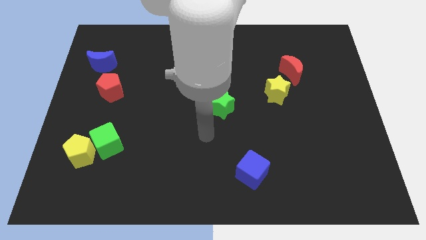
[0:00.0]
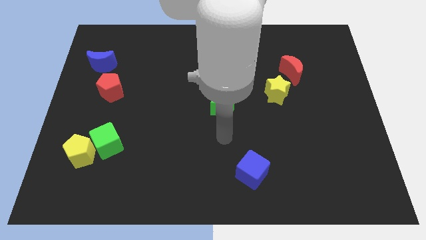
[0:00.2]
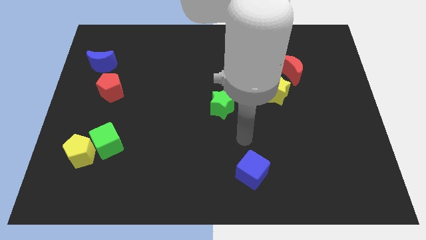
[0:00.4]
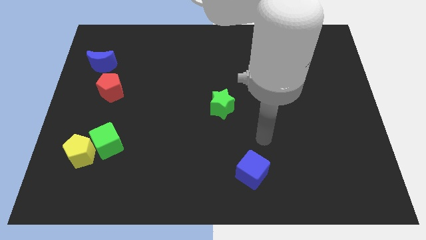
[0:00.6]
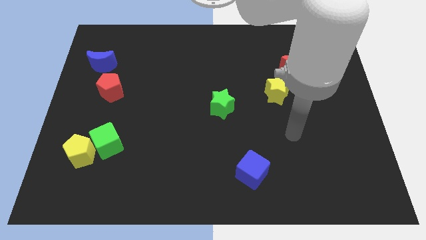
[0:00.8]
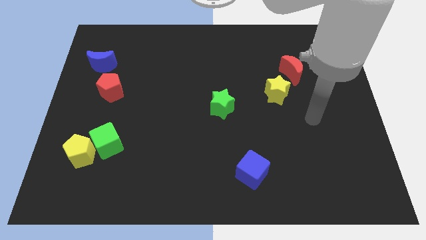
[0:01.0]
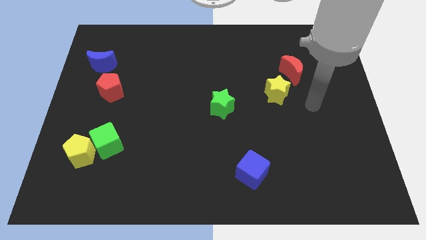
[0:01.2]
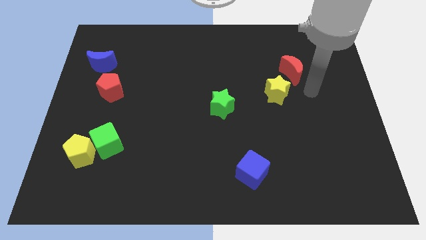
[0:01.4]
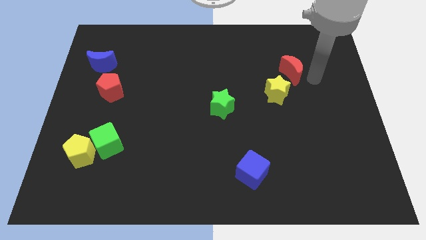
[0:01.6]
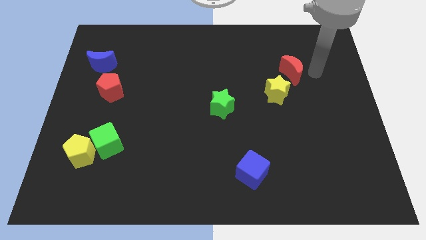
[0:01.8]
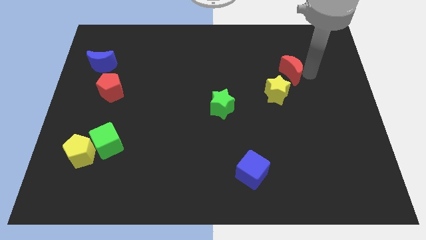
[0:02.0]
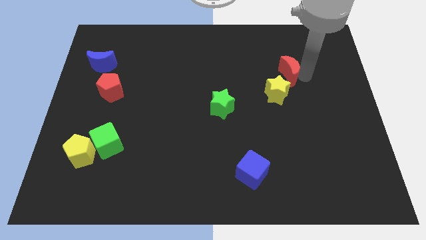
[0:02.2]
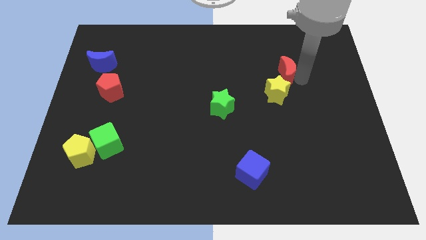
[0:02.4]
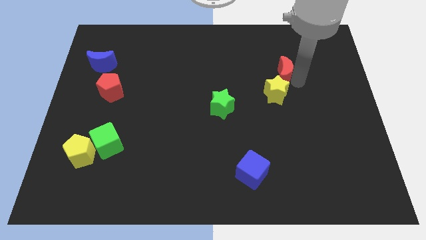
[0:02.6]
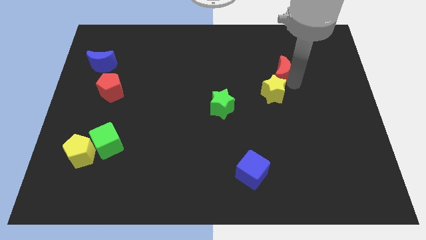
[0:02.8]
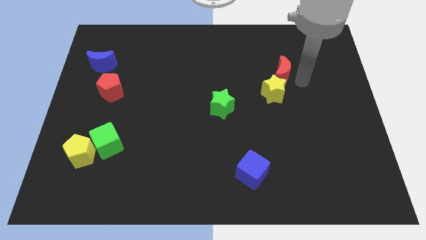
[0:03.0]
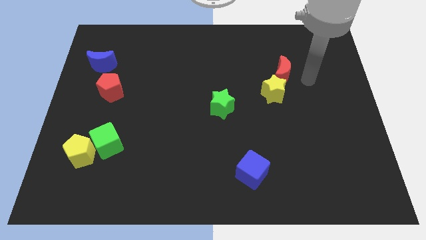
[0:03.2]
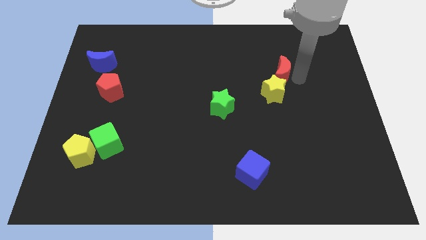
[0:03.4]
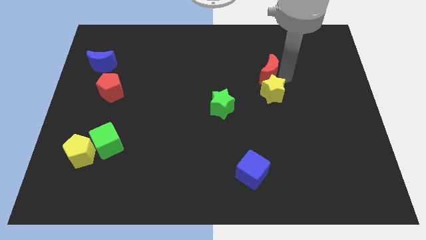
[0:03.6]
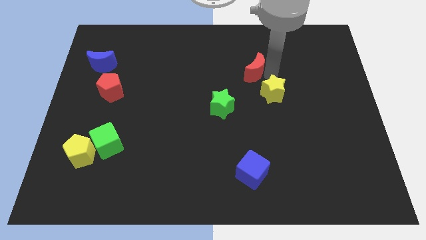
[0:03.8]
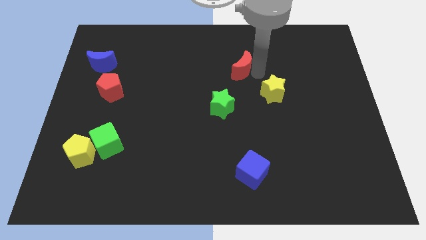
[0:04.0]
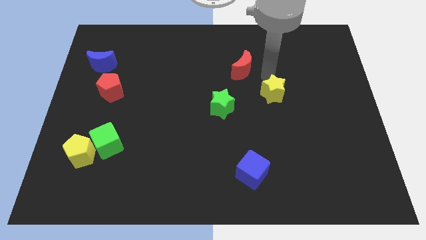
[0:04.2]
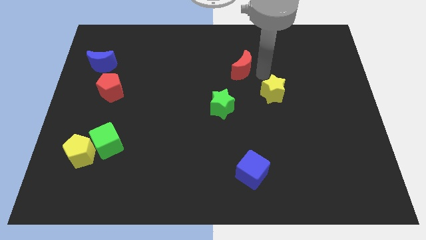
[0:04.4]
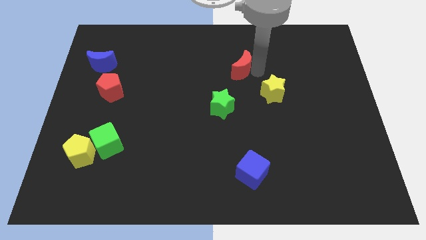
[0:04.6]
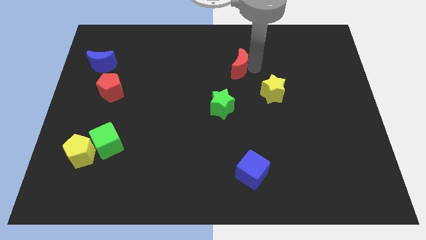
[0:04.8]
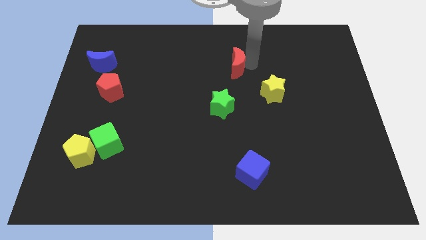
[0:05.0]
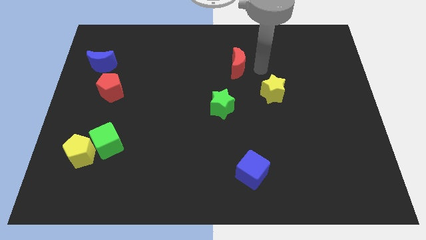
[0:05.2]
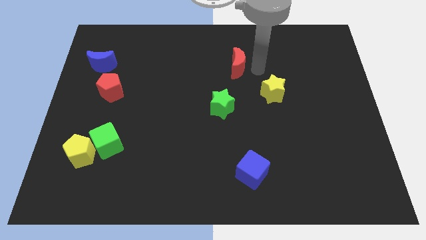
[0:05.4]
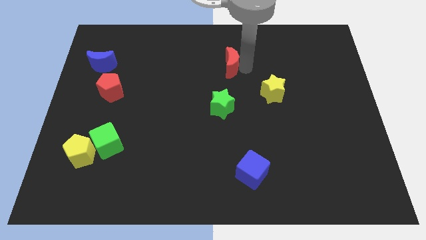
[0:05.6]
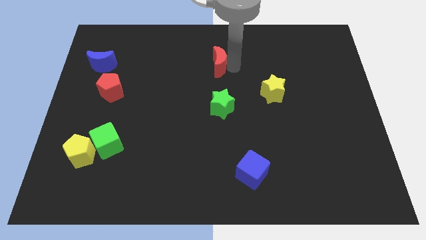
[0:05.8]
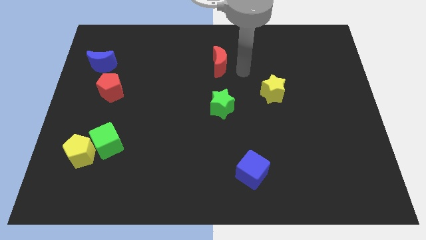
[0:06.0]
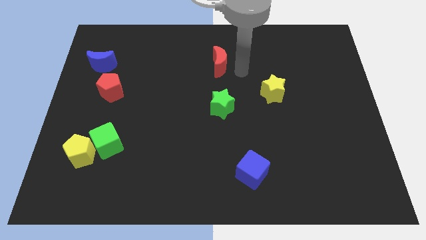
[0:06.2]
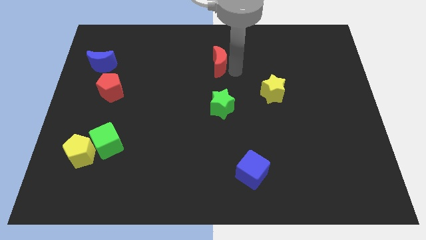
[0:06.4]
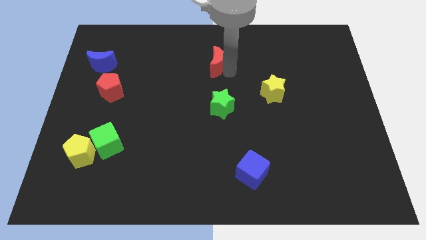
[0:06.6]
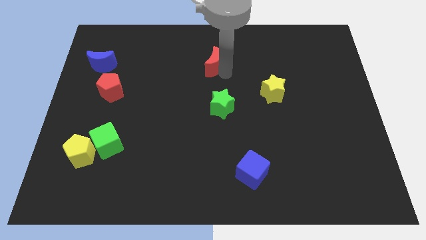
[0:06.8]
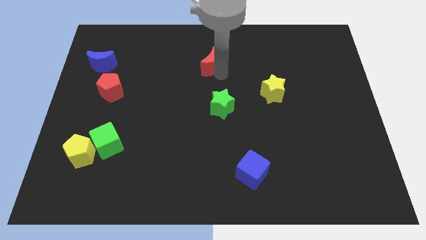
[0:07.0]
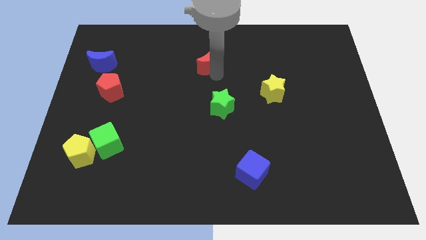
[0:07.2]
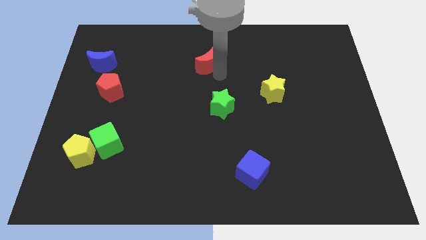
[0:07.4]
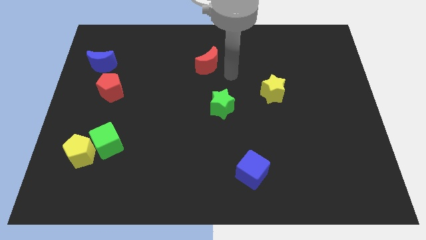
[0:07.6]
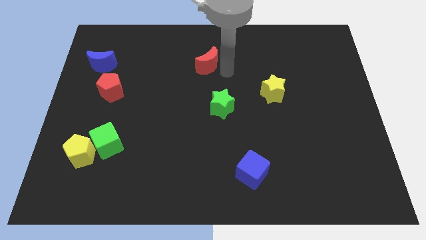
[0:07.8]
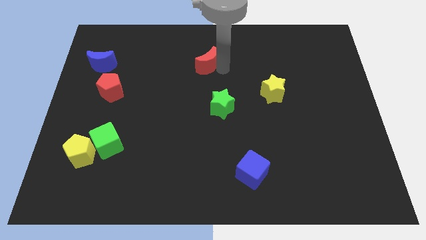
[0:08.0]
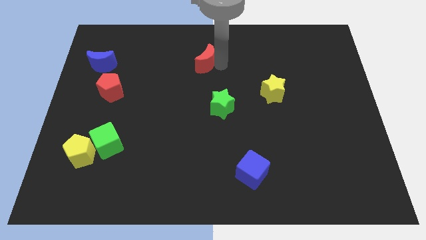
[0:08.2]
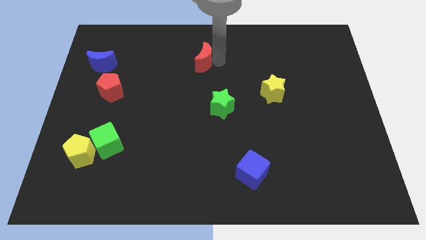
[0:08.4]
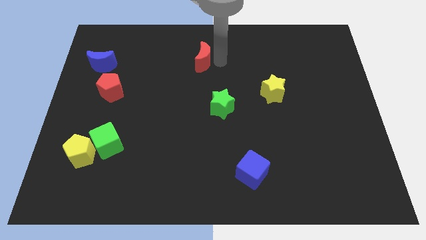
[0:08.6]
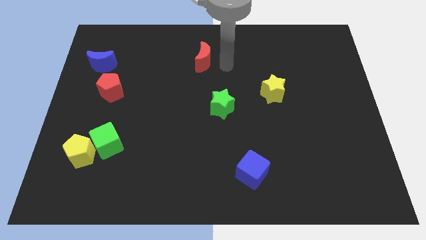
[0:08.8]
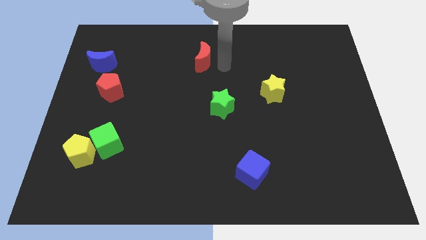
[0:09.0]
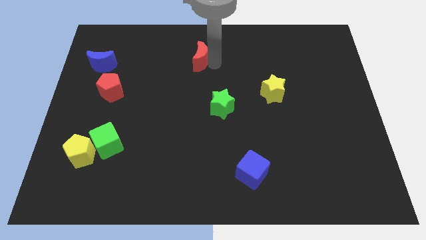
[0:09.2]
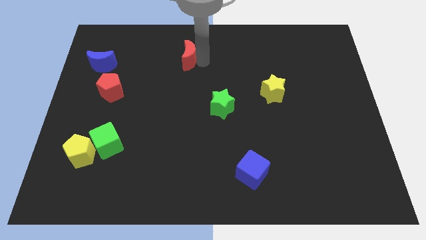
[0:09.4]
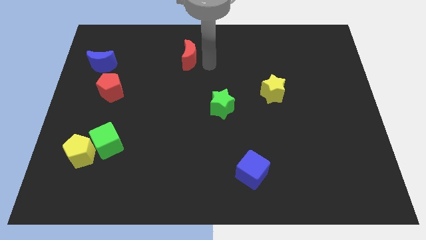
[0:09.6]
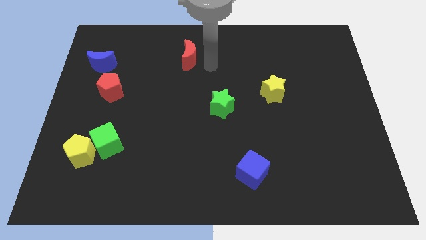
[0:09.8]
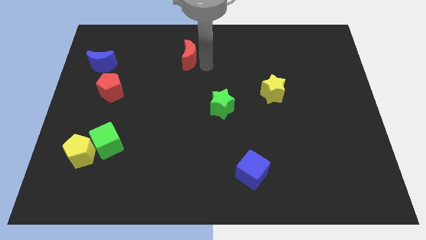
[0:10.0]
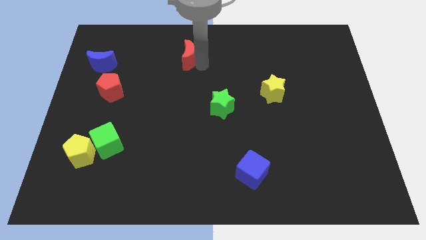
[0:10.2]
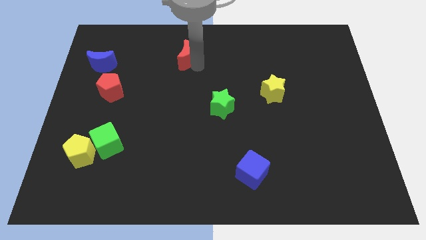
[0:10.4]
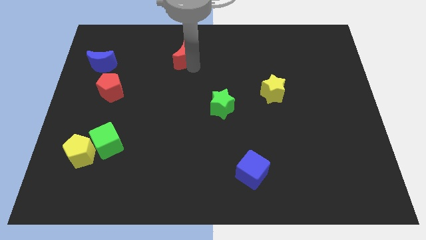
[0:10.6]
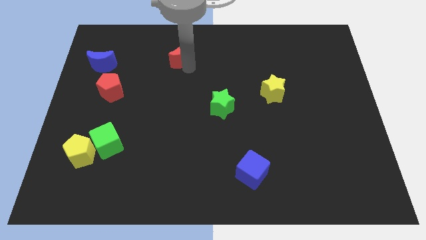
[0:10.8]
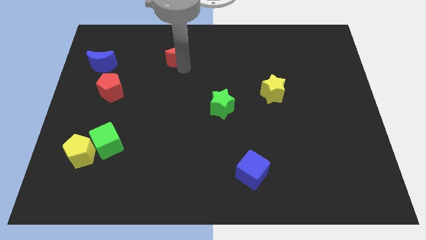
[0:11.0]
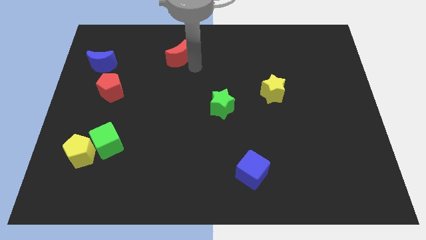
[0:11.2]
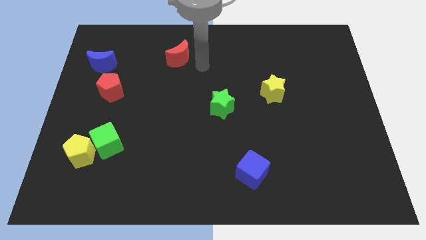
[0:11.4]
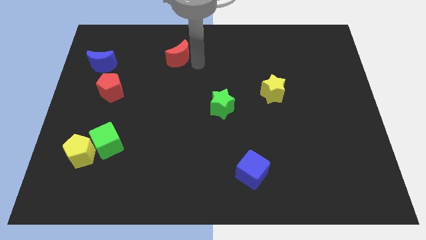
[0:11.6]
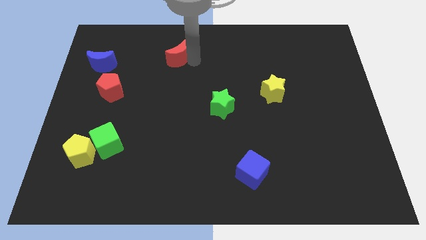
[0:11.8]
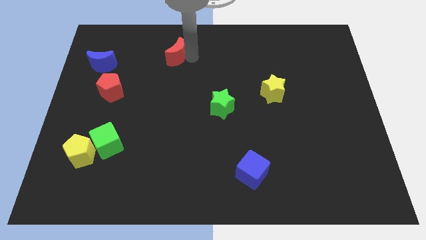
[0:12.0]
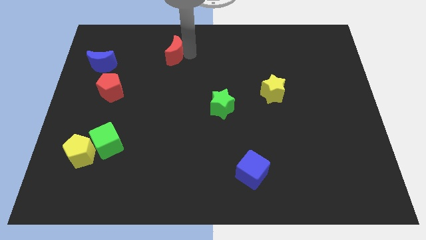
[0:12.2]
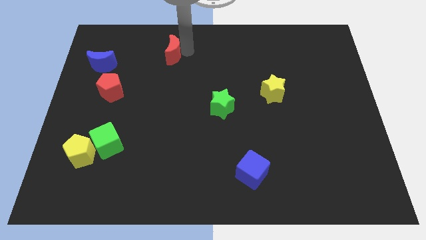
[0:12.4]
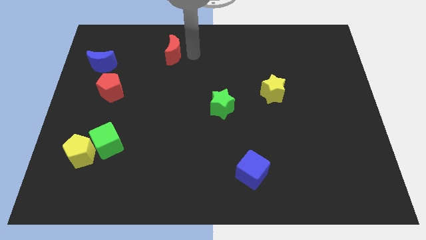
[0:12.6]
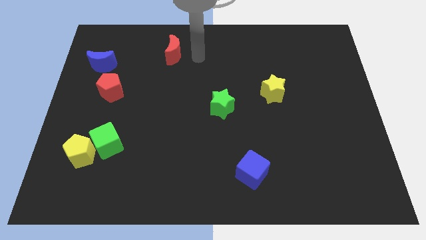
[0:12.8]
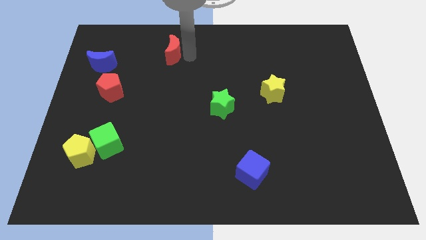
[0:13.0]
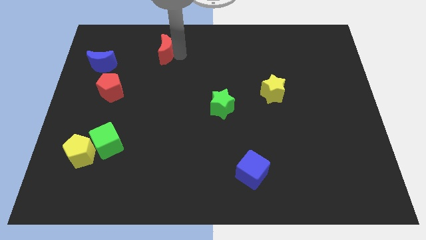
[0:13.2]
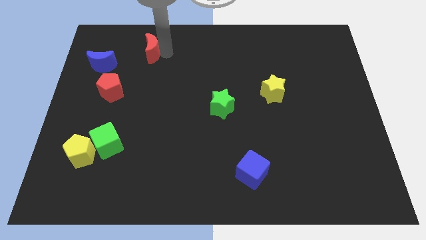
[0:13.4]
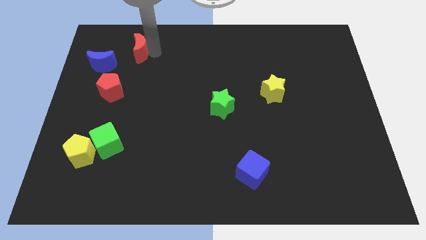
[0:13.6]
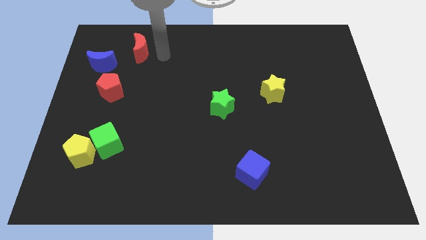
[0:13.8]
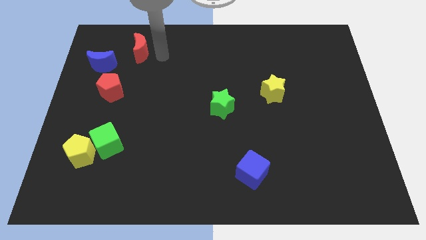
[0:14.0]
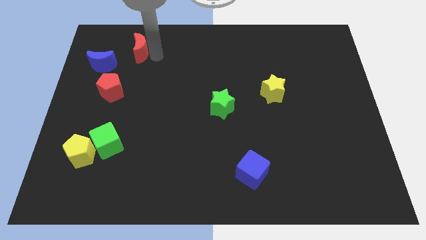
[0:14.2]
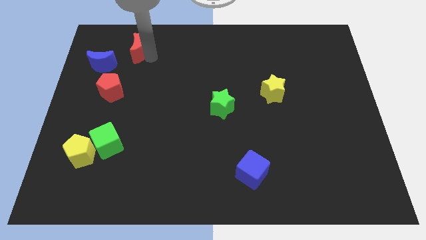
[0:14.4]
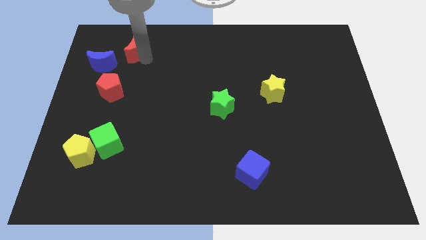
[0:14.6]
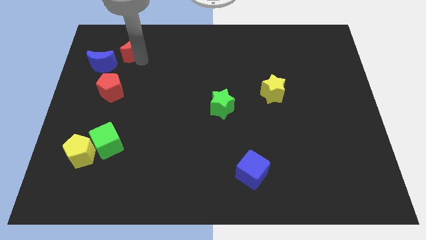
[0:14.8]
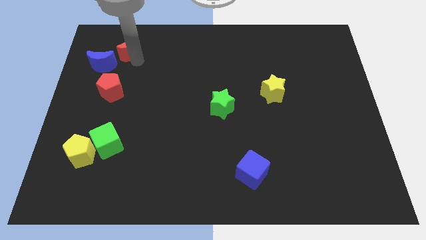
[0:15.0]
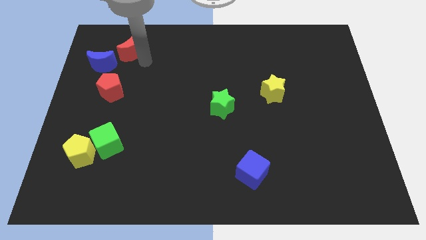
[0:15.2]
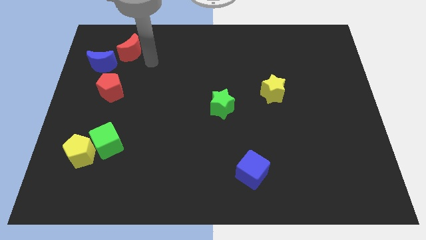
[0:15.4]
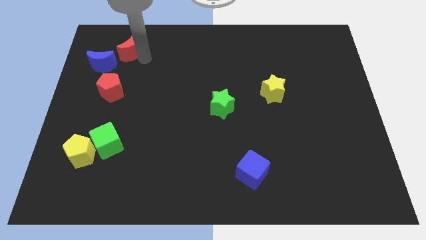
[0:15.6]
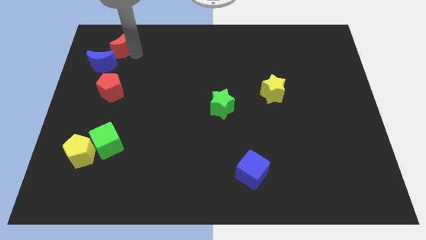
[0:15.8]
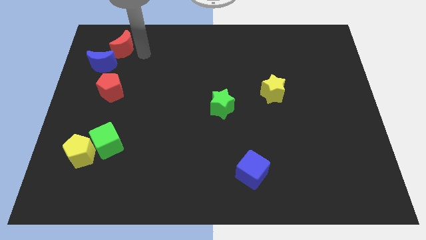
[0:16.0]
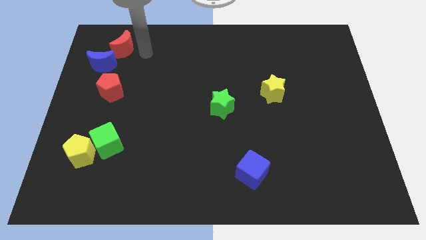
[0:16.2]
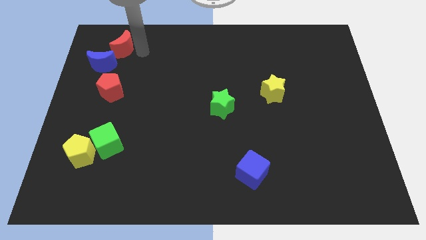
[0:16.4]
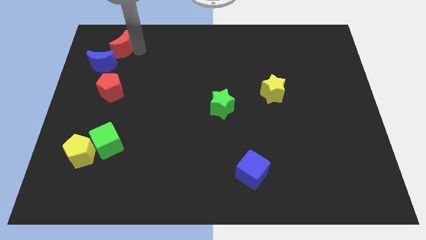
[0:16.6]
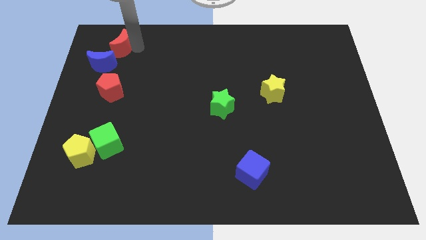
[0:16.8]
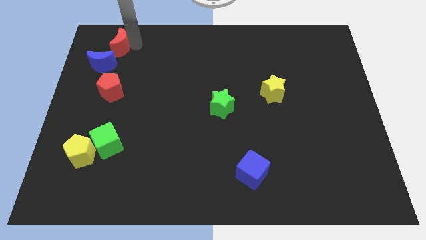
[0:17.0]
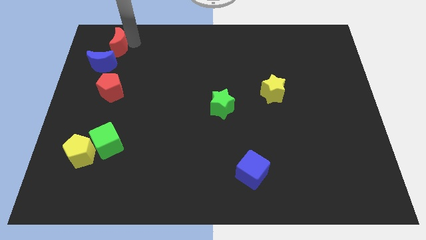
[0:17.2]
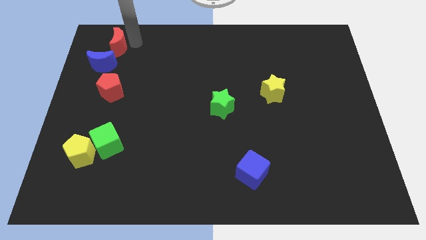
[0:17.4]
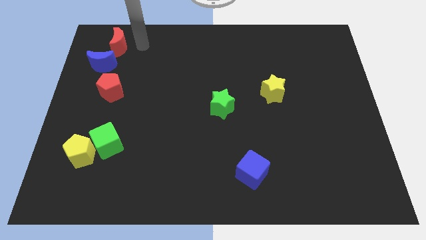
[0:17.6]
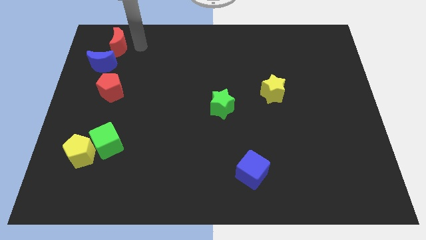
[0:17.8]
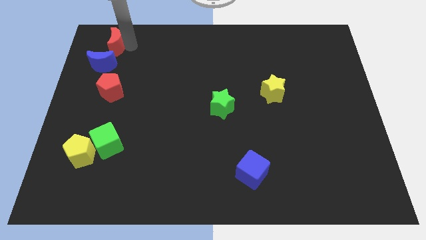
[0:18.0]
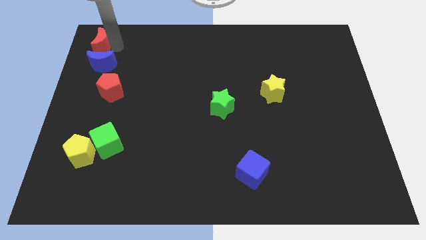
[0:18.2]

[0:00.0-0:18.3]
push the red moon to the top left of the board
